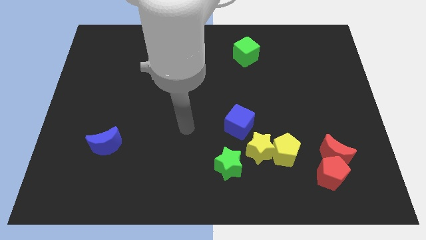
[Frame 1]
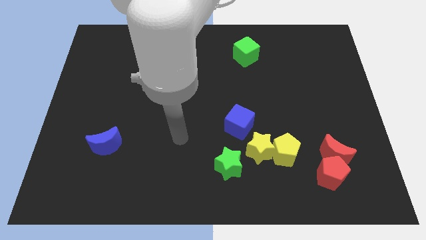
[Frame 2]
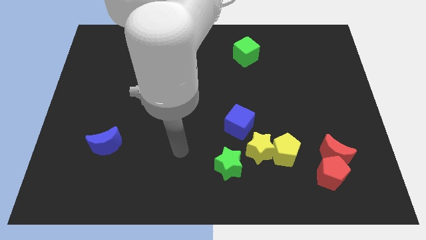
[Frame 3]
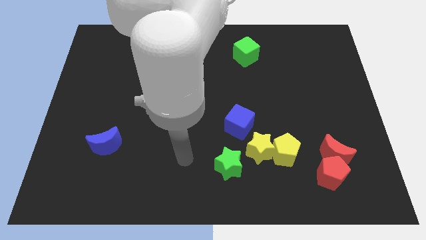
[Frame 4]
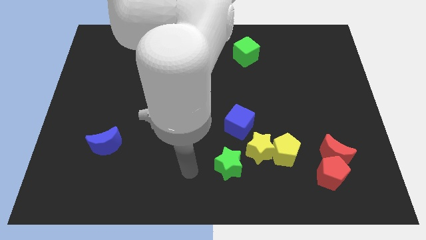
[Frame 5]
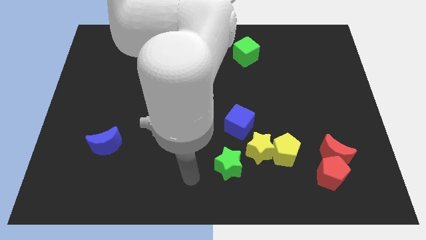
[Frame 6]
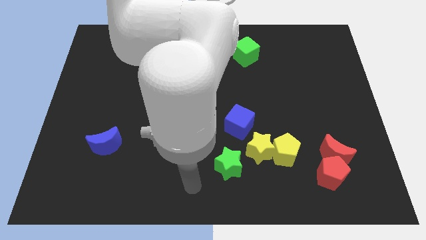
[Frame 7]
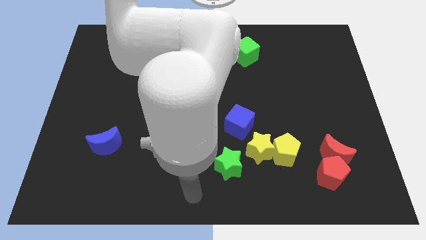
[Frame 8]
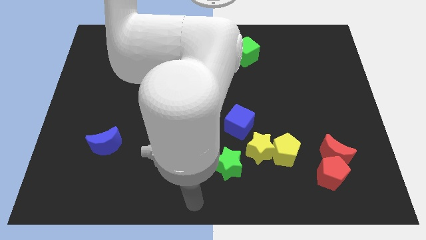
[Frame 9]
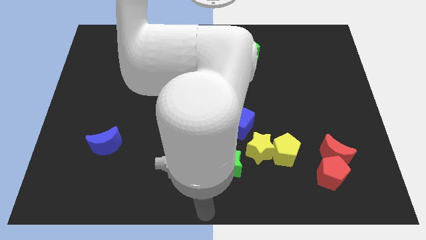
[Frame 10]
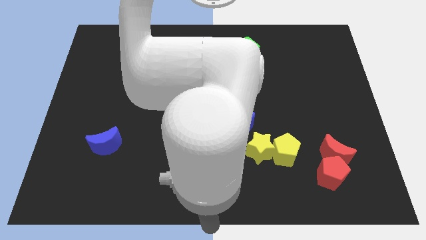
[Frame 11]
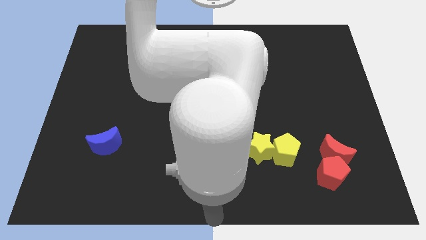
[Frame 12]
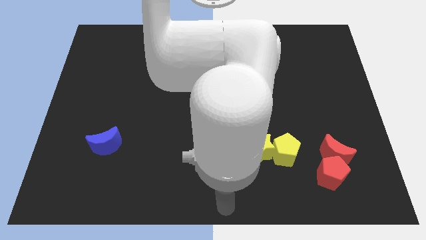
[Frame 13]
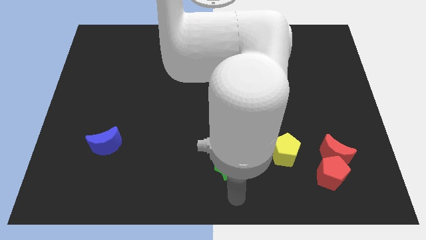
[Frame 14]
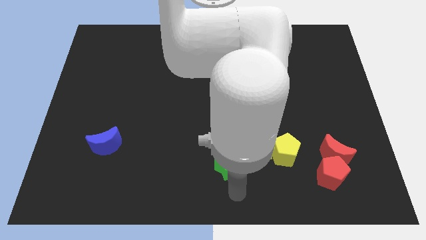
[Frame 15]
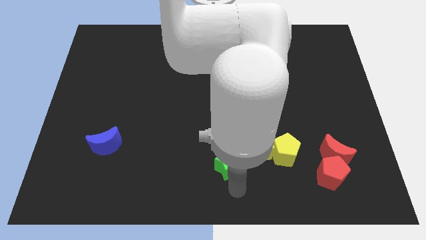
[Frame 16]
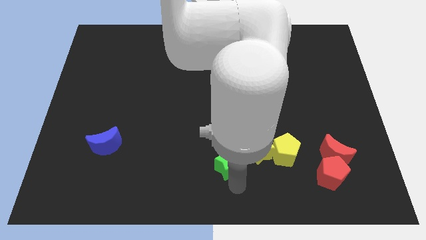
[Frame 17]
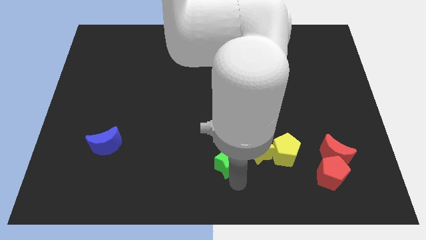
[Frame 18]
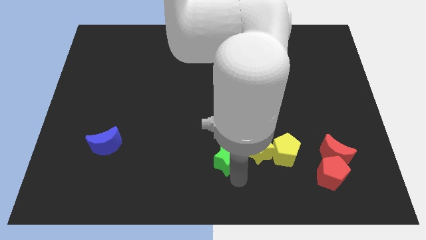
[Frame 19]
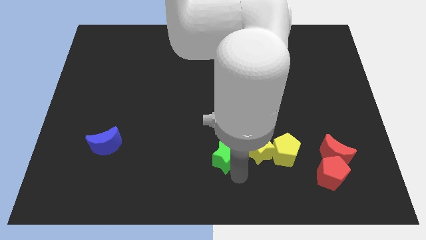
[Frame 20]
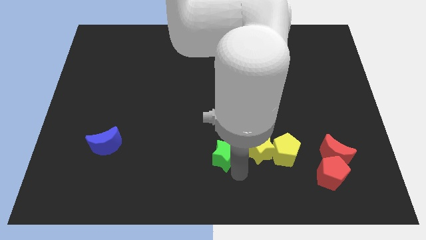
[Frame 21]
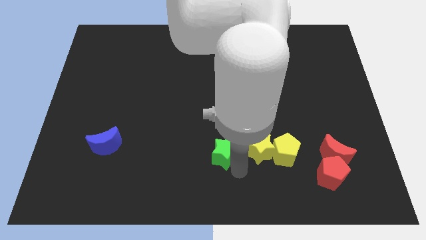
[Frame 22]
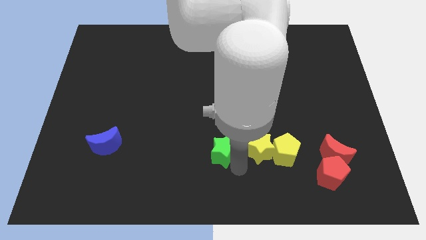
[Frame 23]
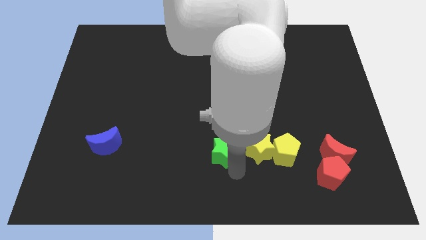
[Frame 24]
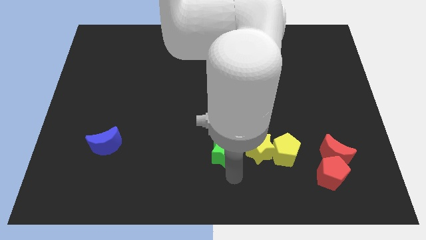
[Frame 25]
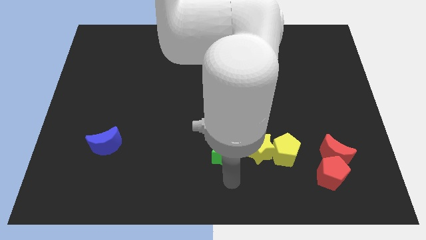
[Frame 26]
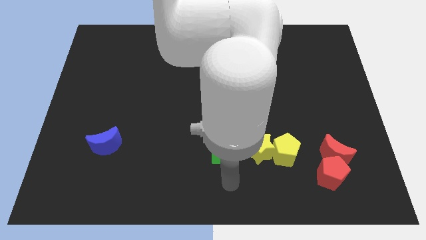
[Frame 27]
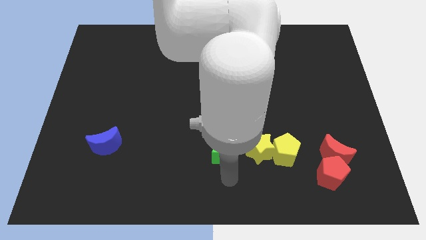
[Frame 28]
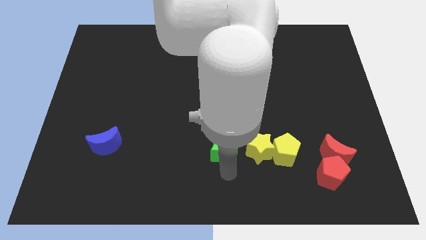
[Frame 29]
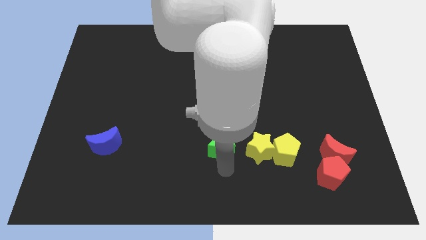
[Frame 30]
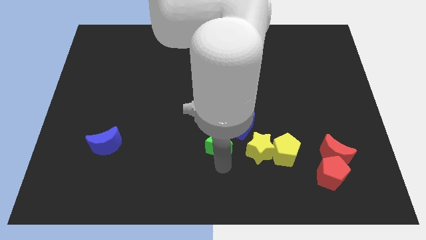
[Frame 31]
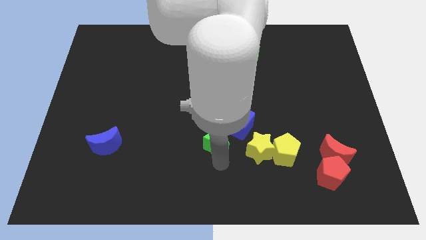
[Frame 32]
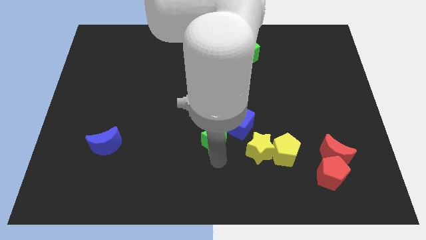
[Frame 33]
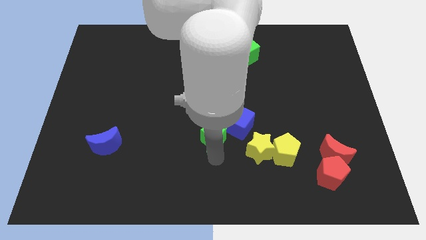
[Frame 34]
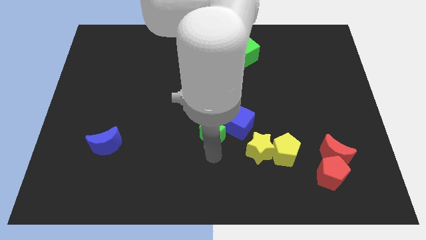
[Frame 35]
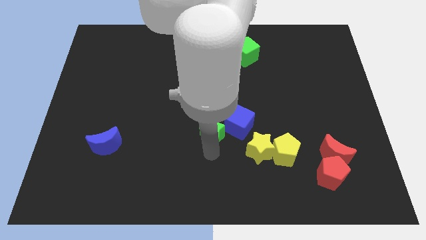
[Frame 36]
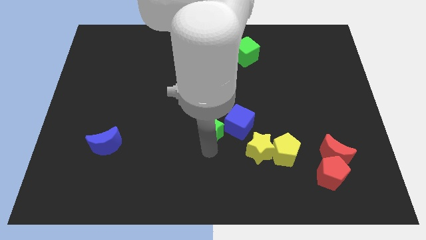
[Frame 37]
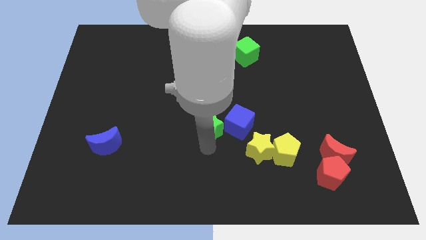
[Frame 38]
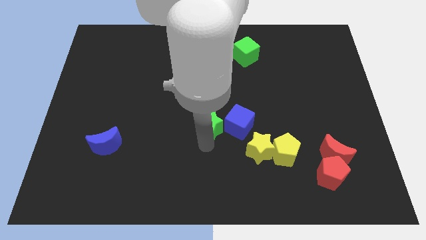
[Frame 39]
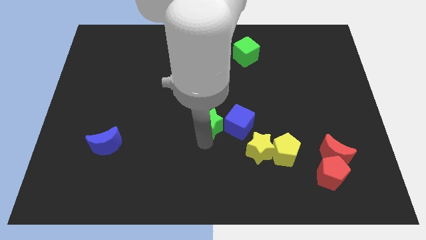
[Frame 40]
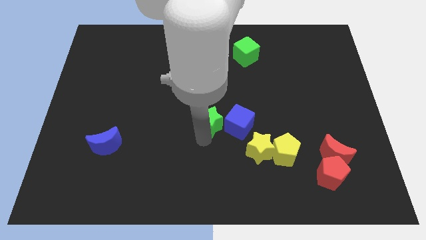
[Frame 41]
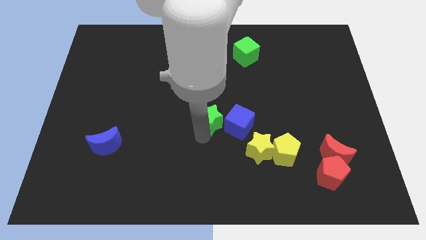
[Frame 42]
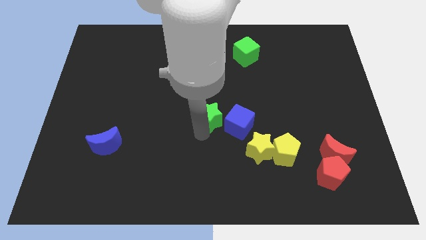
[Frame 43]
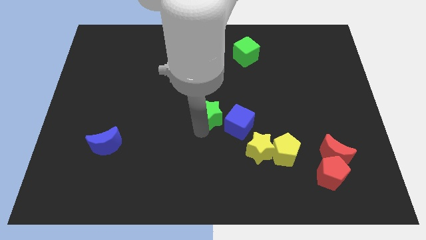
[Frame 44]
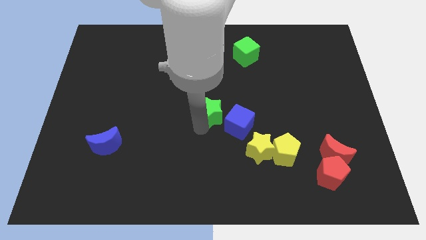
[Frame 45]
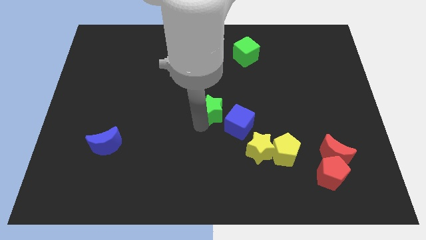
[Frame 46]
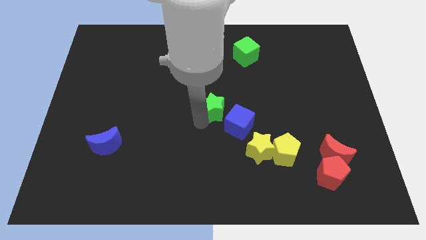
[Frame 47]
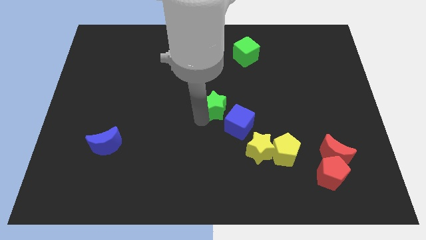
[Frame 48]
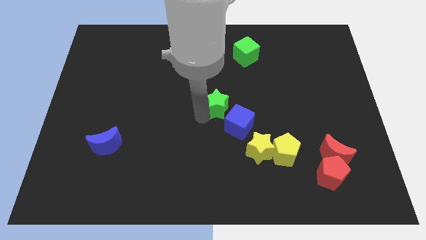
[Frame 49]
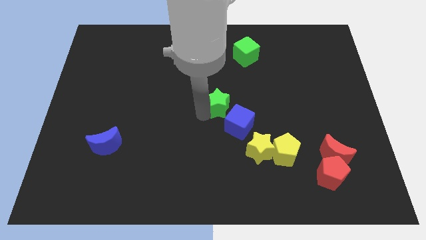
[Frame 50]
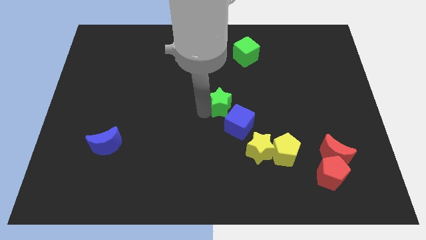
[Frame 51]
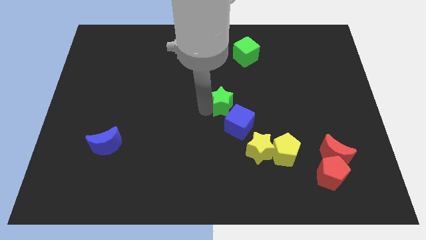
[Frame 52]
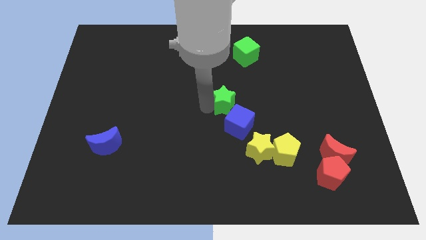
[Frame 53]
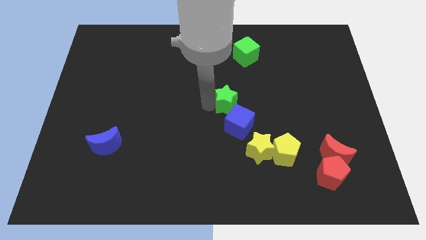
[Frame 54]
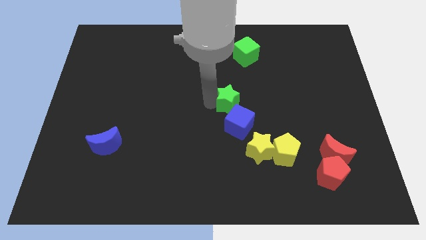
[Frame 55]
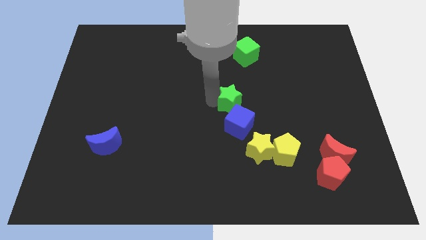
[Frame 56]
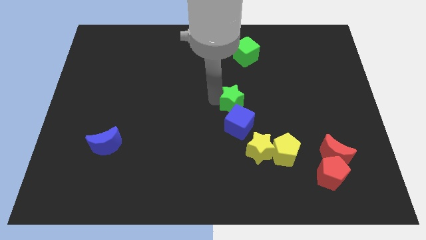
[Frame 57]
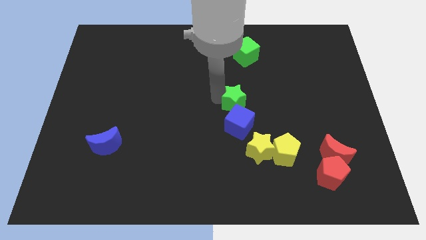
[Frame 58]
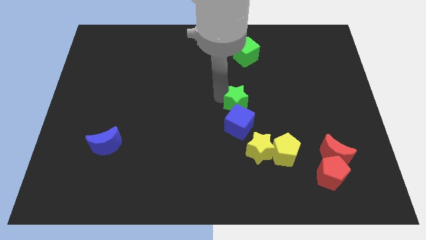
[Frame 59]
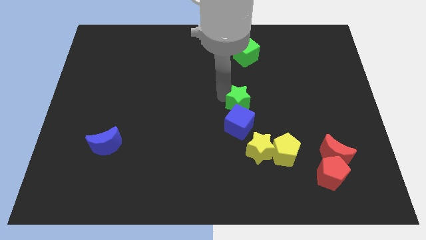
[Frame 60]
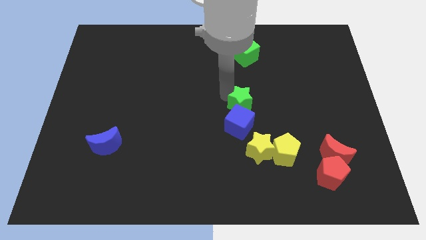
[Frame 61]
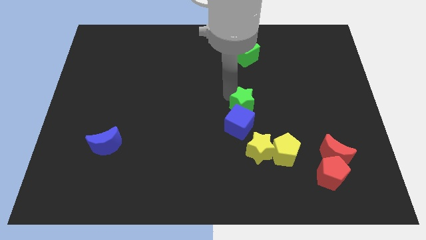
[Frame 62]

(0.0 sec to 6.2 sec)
slide the green star to the blue cube

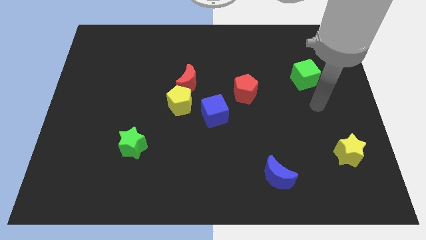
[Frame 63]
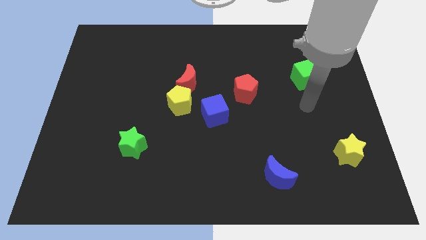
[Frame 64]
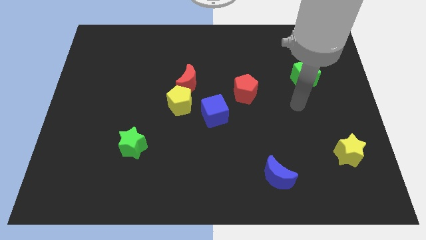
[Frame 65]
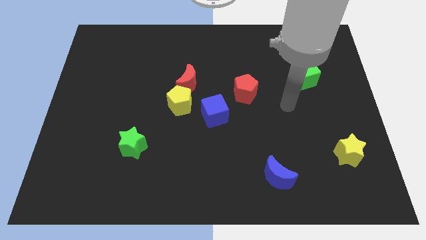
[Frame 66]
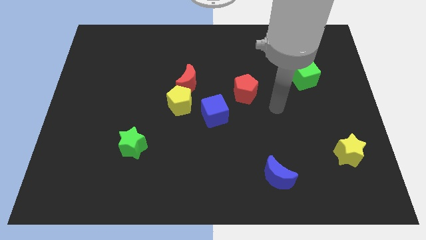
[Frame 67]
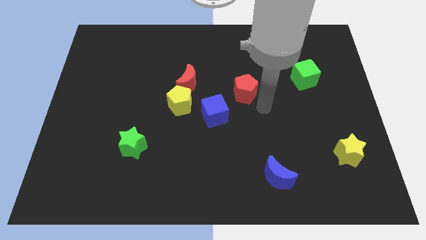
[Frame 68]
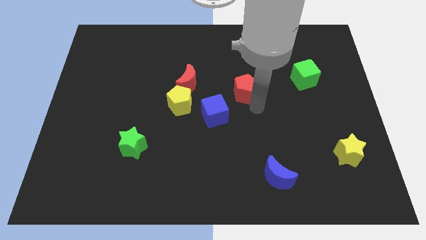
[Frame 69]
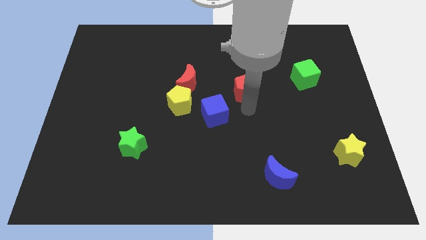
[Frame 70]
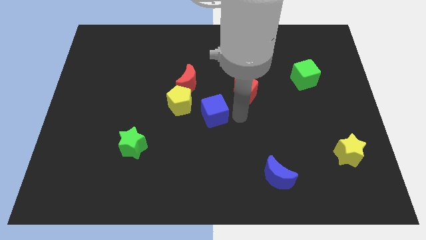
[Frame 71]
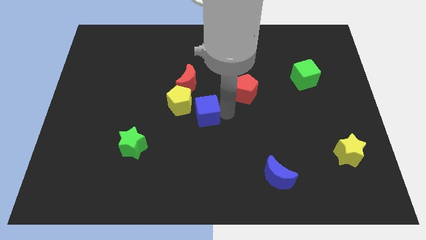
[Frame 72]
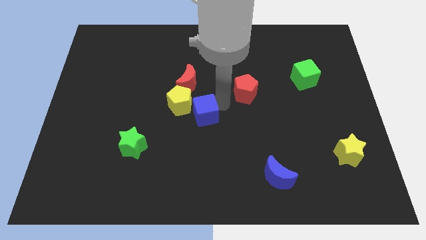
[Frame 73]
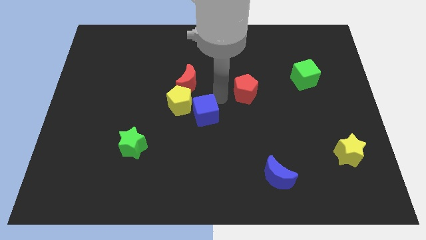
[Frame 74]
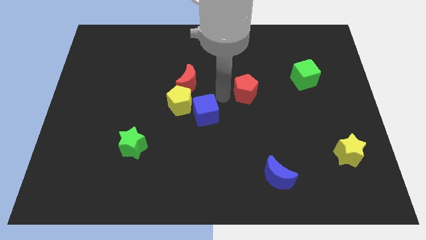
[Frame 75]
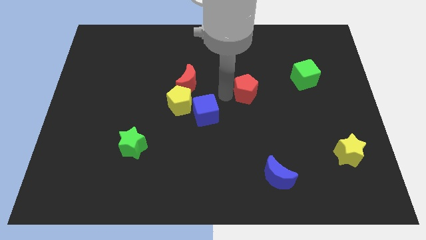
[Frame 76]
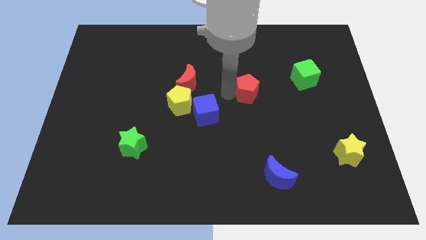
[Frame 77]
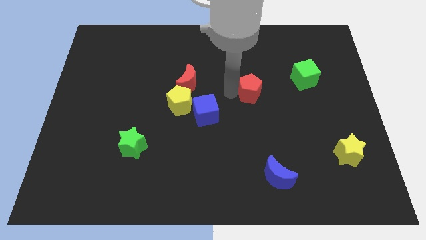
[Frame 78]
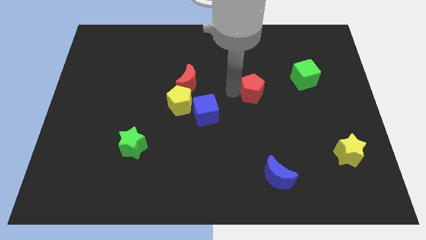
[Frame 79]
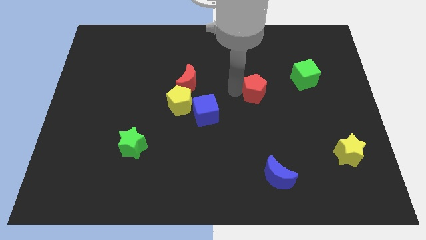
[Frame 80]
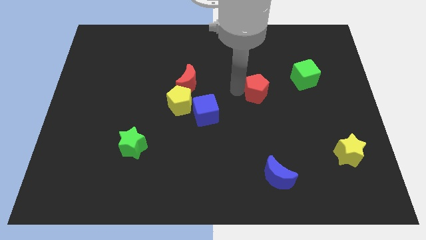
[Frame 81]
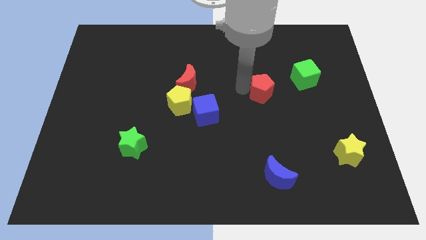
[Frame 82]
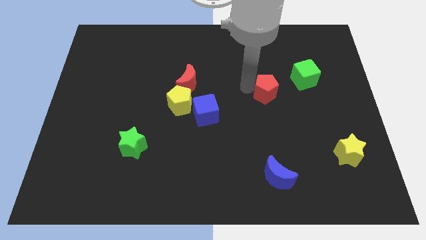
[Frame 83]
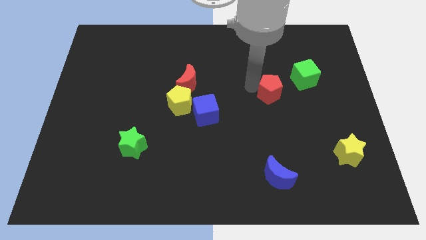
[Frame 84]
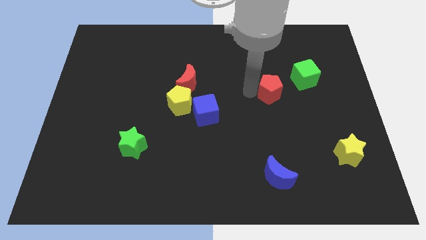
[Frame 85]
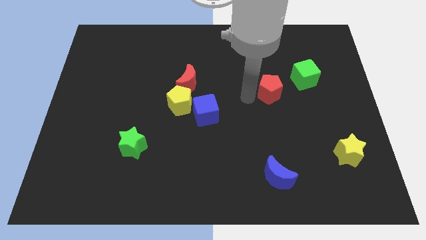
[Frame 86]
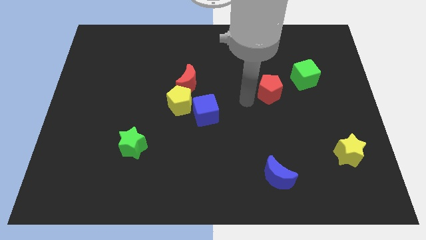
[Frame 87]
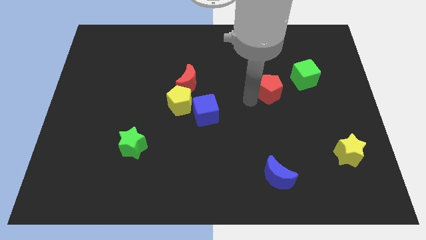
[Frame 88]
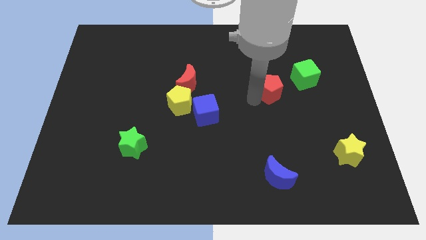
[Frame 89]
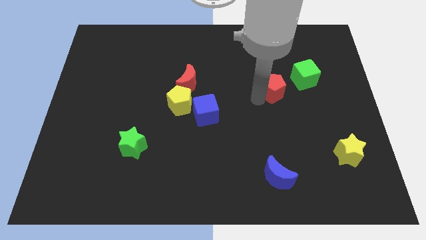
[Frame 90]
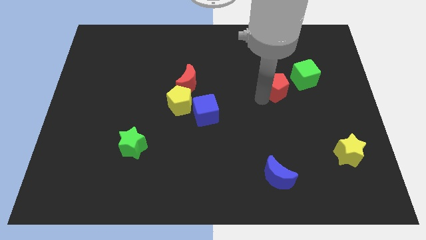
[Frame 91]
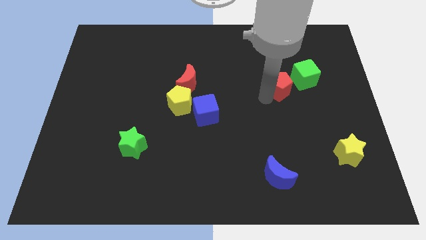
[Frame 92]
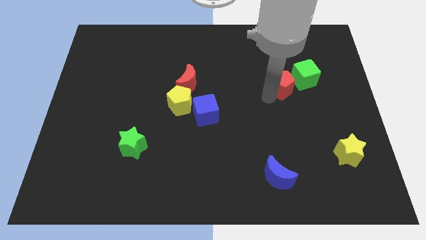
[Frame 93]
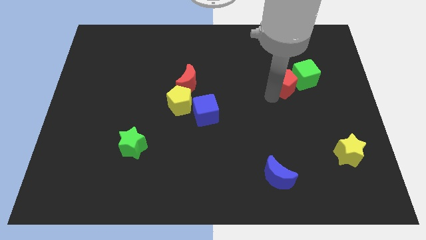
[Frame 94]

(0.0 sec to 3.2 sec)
push the red pentagon to the green cube
